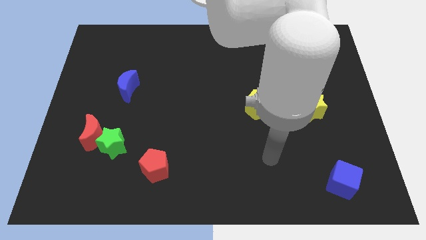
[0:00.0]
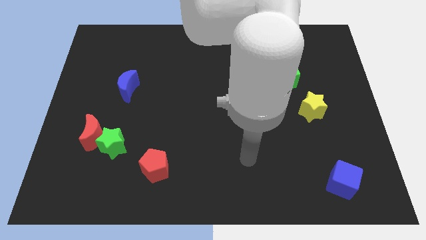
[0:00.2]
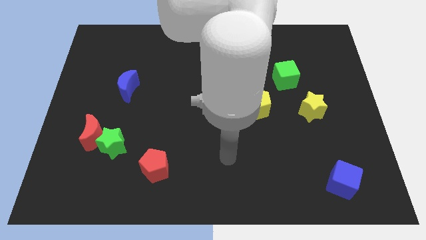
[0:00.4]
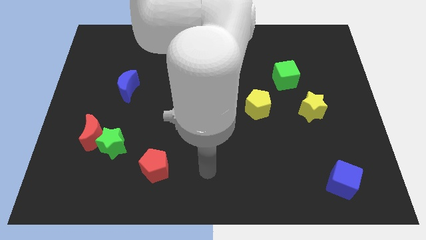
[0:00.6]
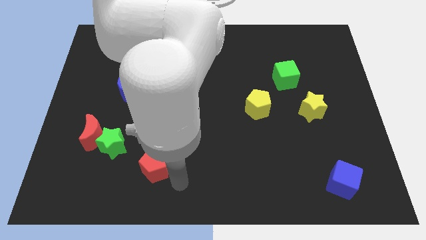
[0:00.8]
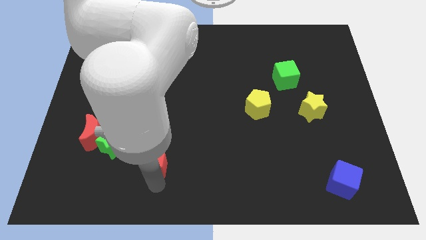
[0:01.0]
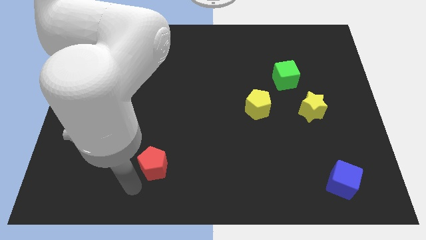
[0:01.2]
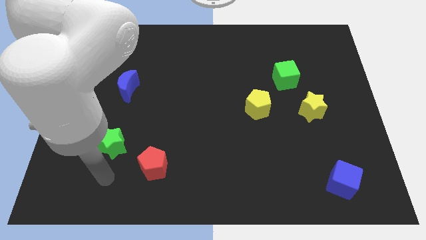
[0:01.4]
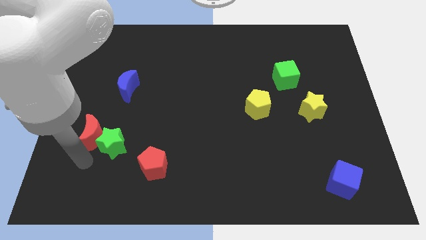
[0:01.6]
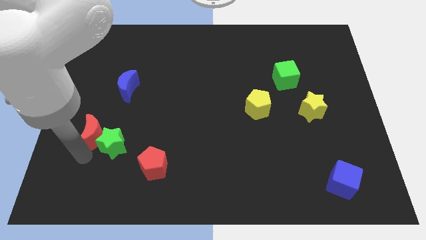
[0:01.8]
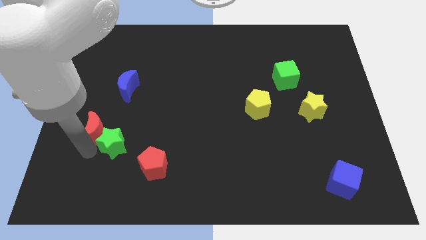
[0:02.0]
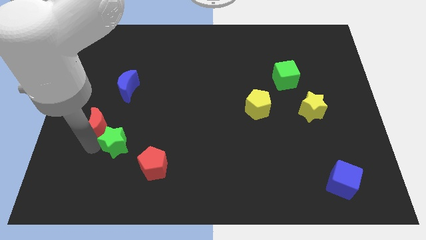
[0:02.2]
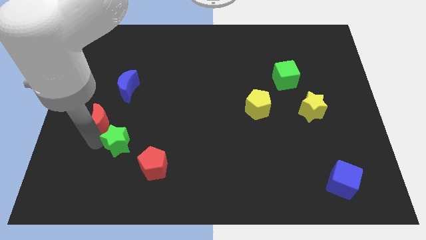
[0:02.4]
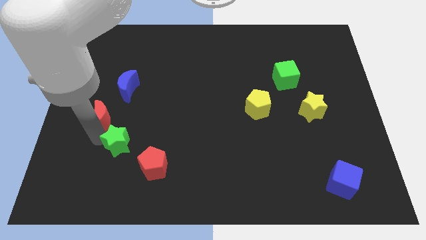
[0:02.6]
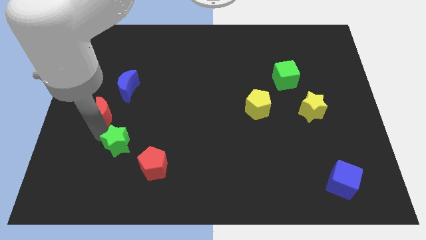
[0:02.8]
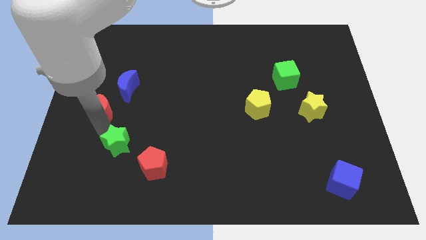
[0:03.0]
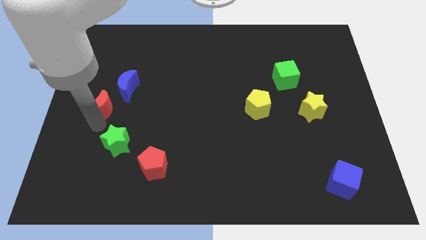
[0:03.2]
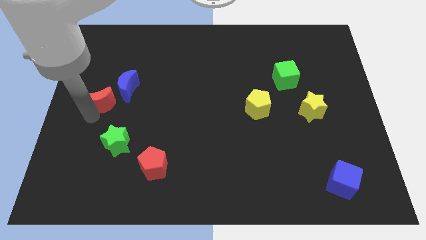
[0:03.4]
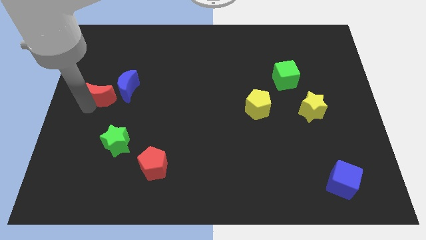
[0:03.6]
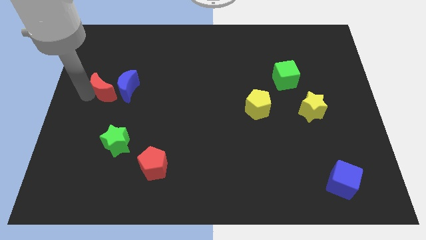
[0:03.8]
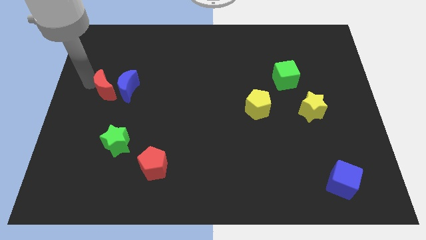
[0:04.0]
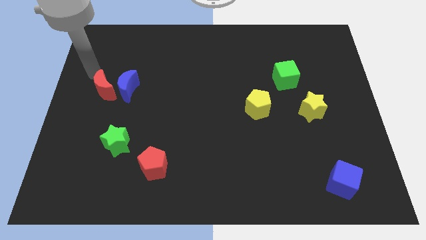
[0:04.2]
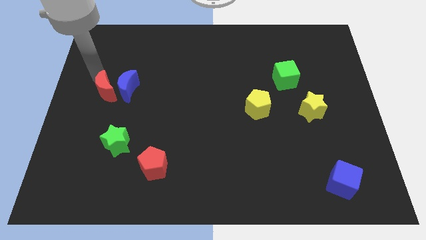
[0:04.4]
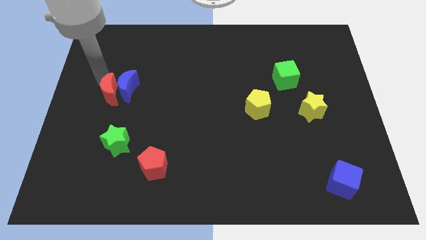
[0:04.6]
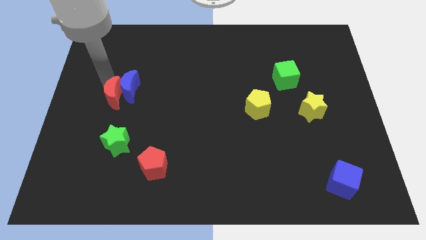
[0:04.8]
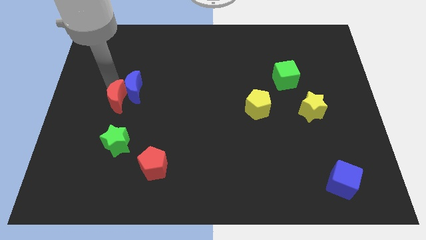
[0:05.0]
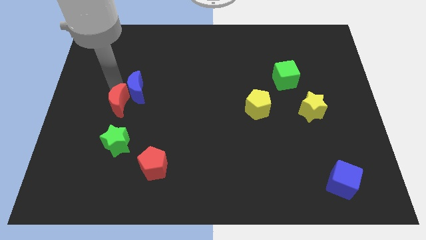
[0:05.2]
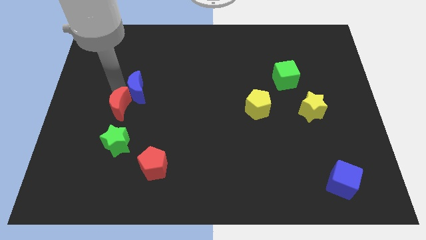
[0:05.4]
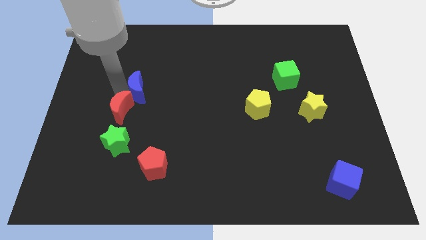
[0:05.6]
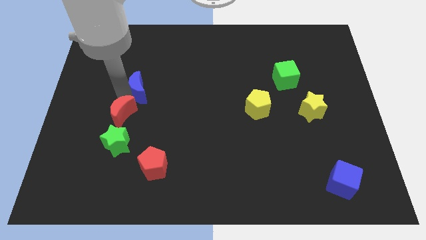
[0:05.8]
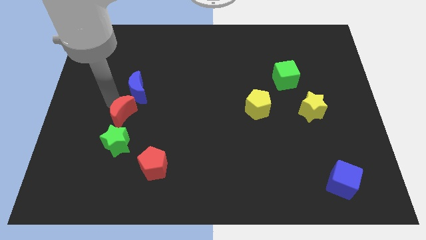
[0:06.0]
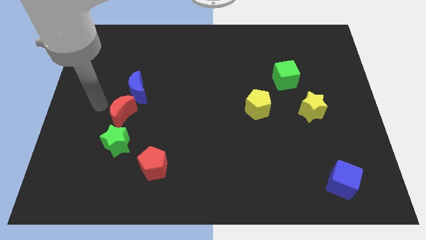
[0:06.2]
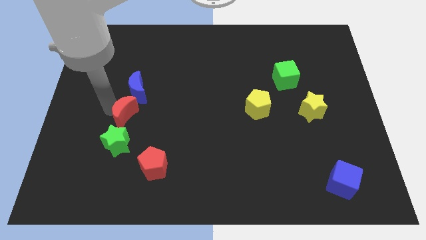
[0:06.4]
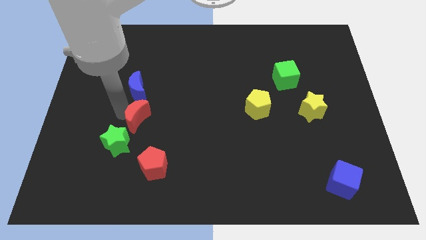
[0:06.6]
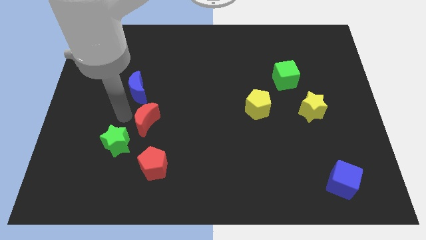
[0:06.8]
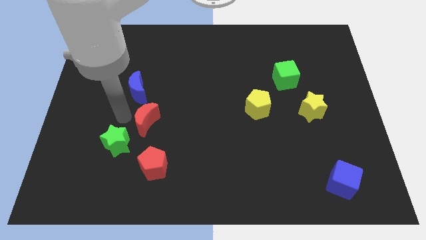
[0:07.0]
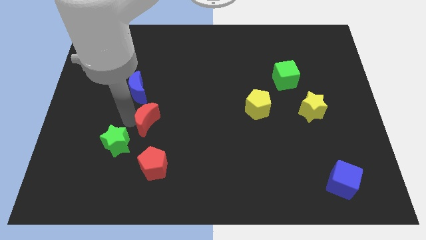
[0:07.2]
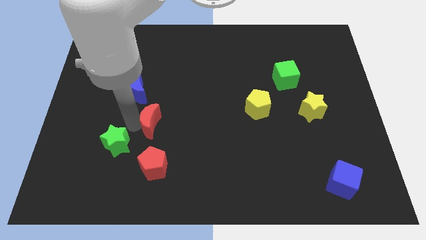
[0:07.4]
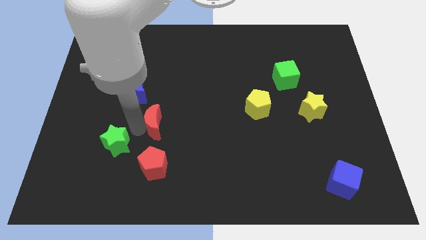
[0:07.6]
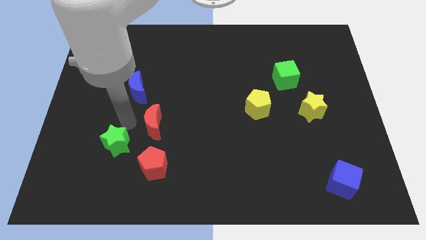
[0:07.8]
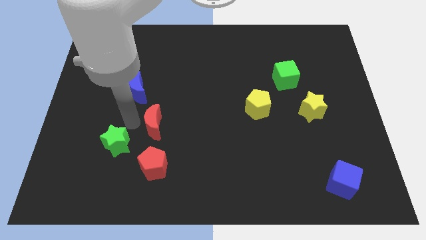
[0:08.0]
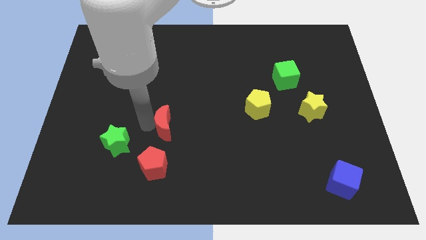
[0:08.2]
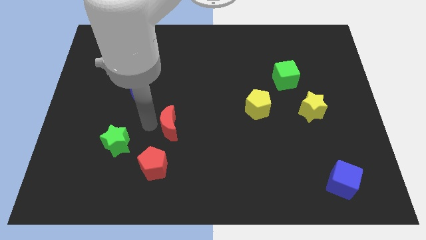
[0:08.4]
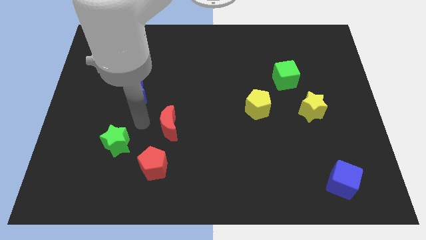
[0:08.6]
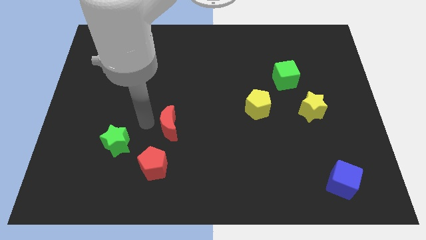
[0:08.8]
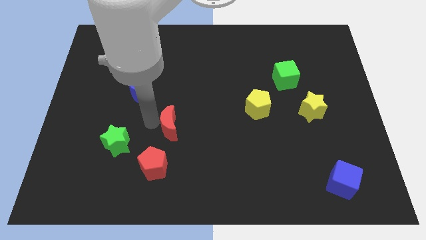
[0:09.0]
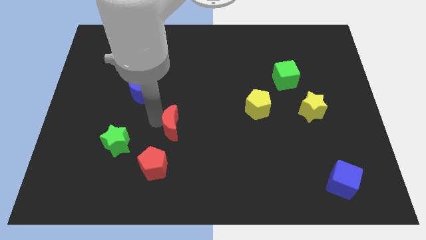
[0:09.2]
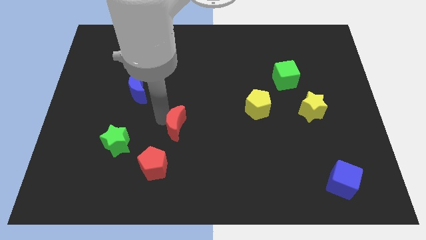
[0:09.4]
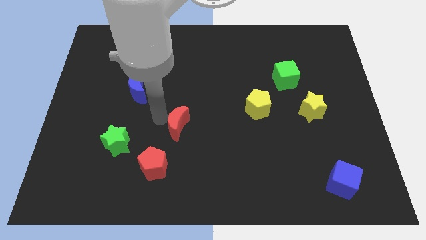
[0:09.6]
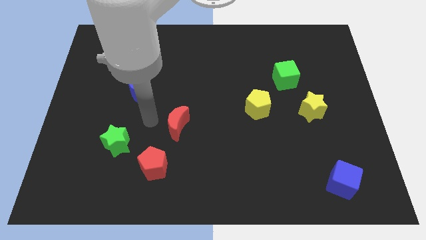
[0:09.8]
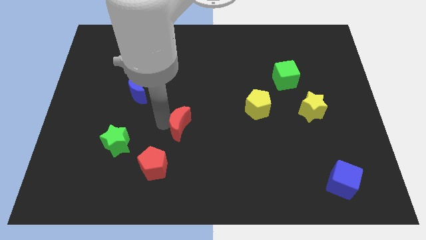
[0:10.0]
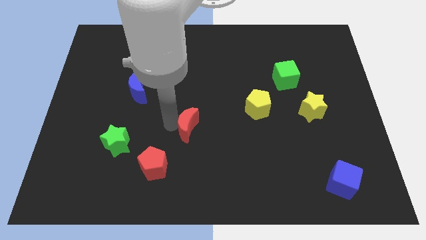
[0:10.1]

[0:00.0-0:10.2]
slide the red moon right

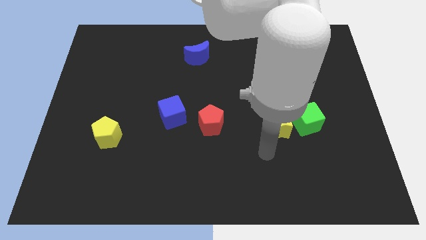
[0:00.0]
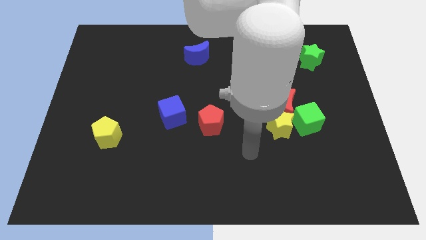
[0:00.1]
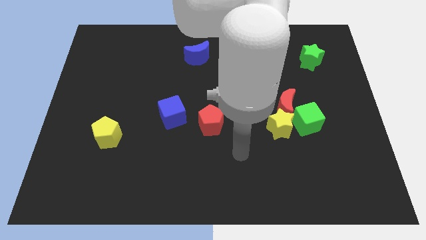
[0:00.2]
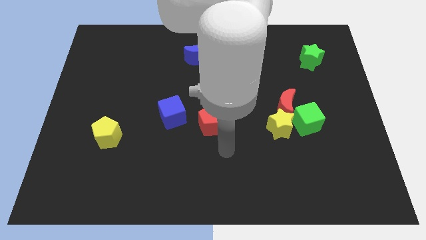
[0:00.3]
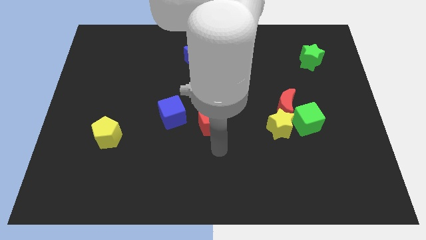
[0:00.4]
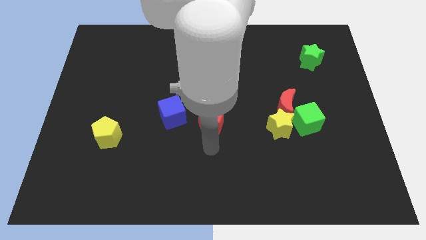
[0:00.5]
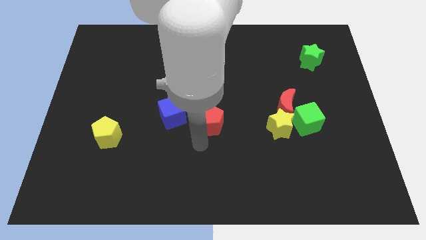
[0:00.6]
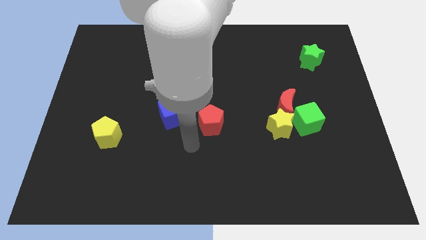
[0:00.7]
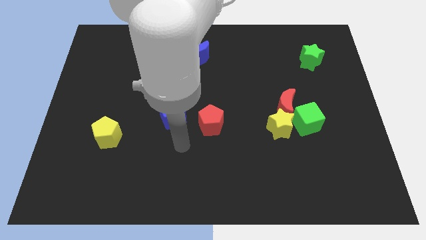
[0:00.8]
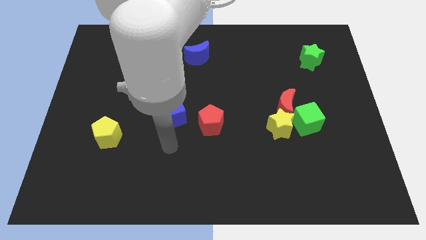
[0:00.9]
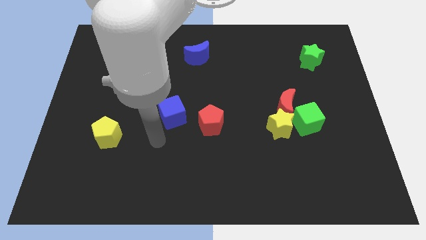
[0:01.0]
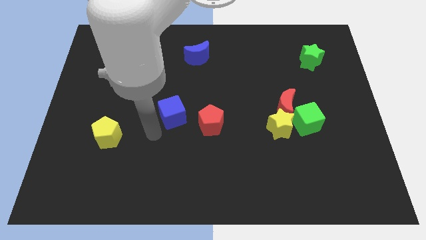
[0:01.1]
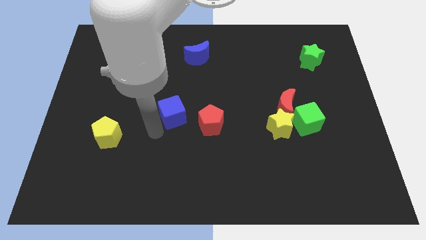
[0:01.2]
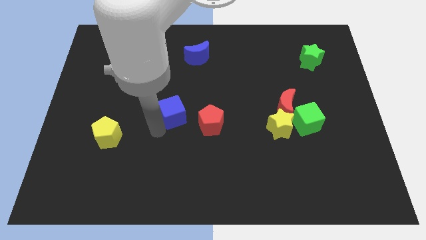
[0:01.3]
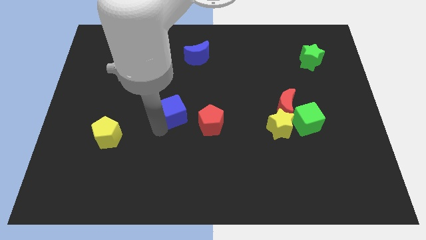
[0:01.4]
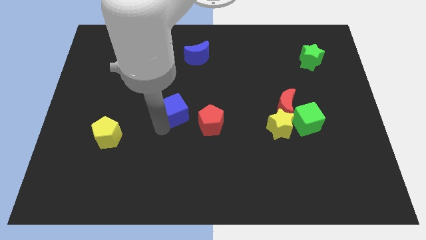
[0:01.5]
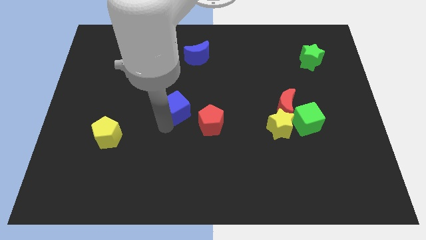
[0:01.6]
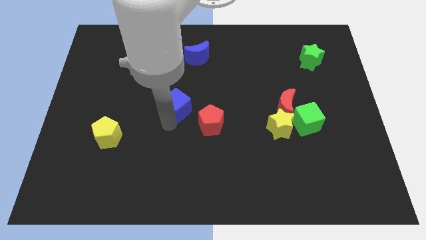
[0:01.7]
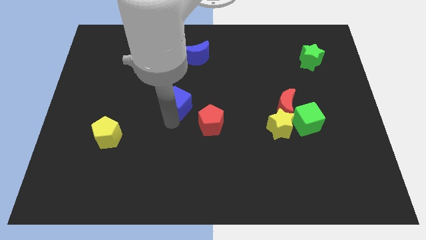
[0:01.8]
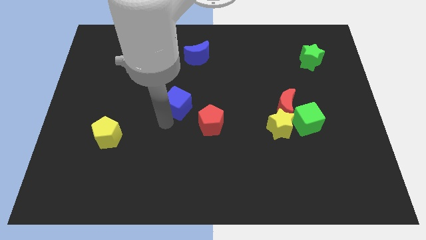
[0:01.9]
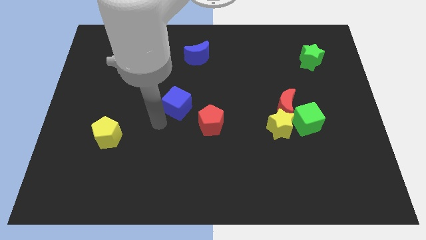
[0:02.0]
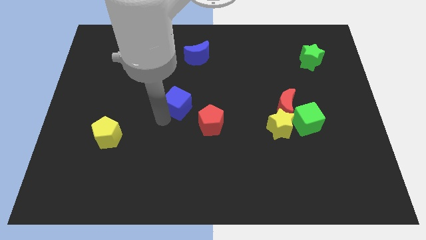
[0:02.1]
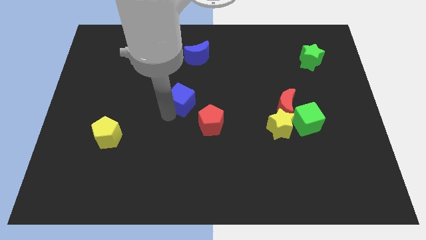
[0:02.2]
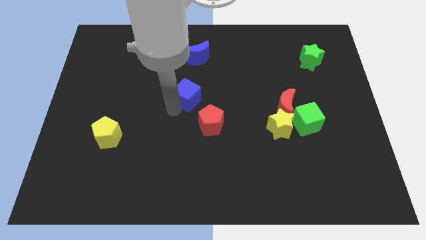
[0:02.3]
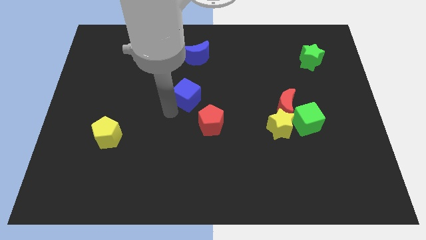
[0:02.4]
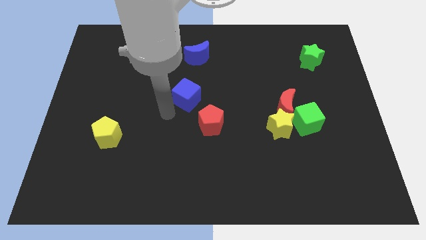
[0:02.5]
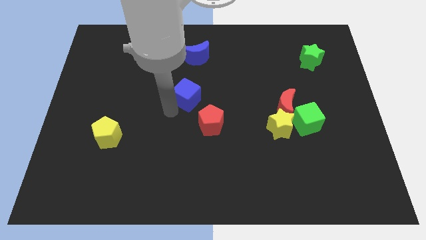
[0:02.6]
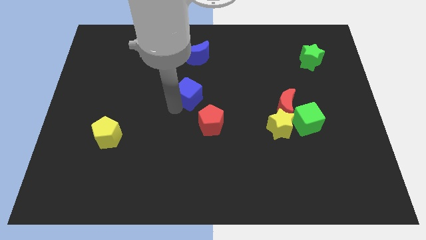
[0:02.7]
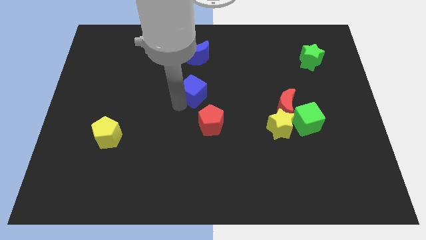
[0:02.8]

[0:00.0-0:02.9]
move the blue cube diagonally up and right a bit
